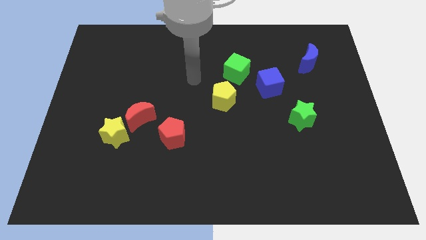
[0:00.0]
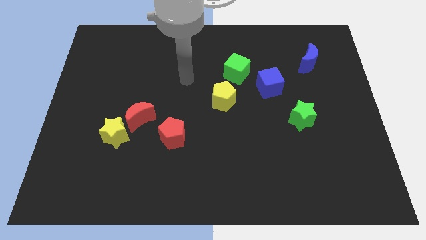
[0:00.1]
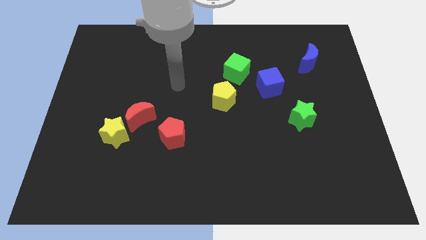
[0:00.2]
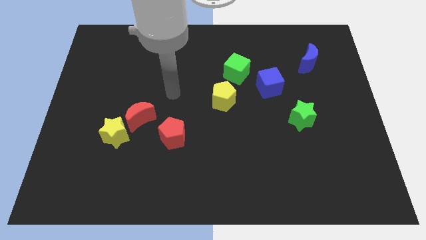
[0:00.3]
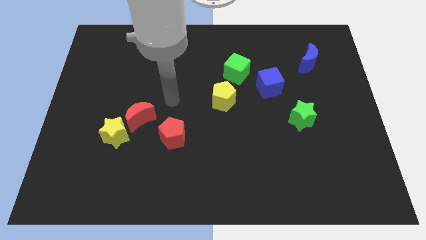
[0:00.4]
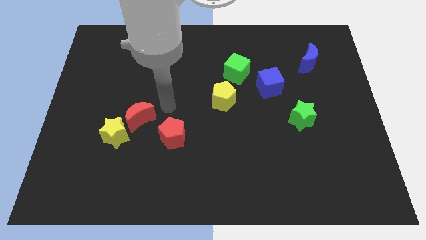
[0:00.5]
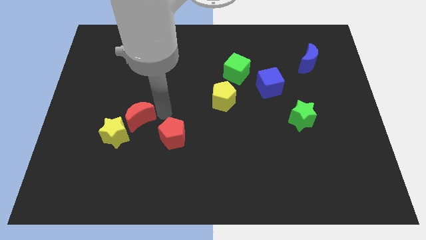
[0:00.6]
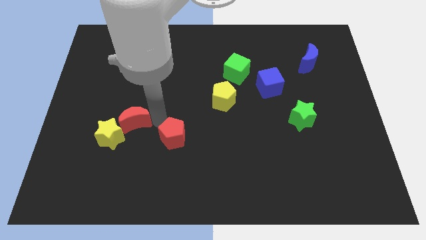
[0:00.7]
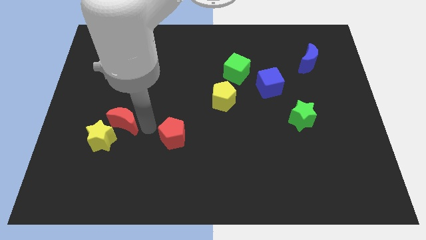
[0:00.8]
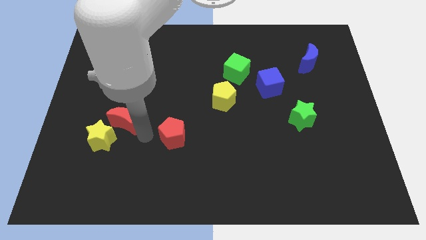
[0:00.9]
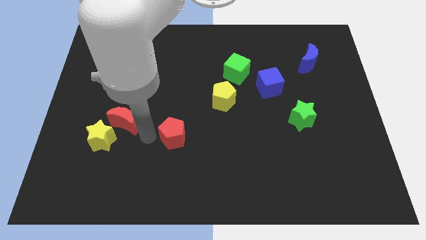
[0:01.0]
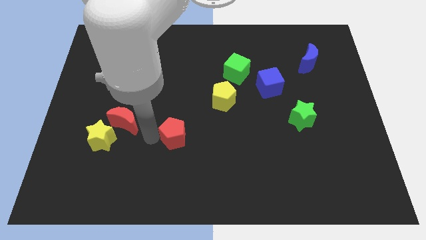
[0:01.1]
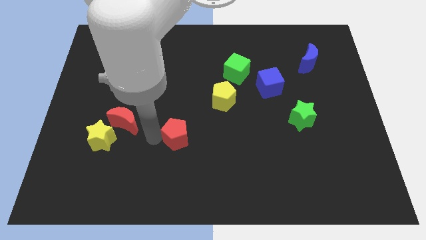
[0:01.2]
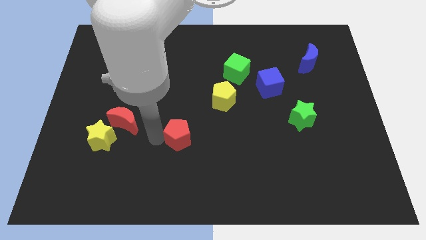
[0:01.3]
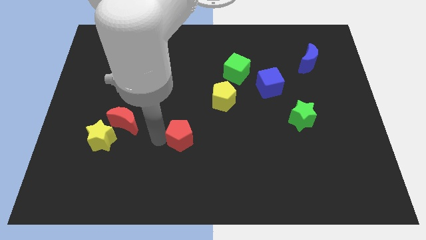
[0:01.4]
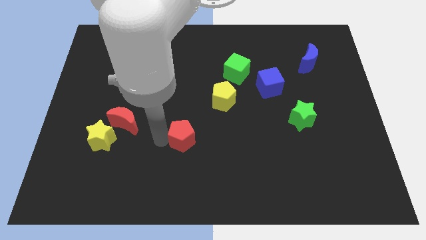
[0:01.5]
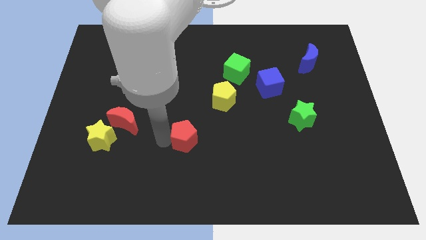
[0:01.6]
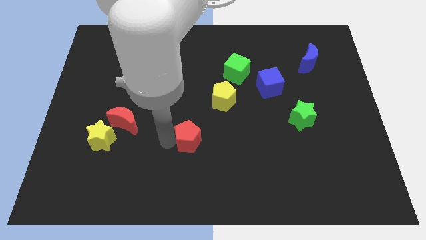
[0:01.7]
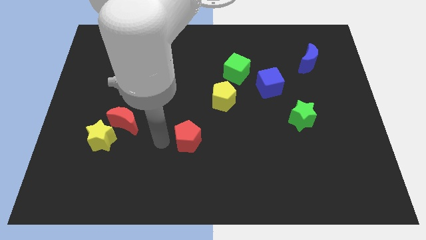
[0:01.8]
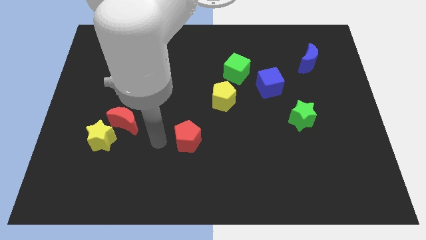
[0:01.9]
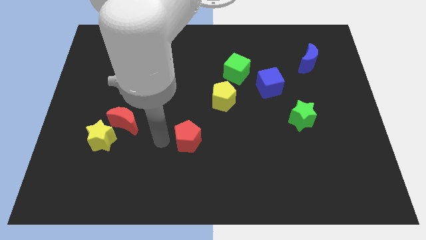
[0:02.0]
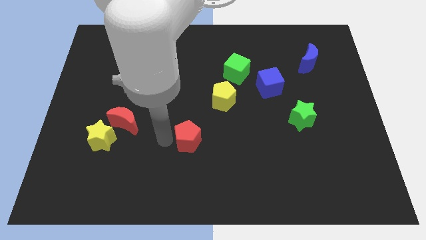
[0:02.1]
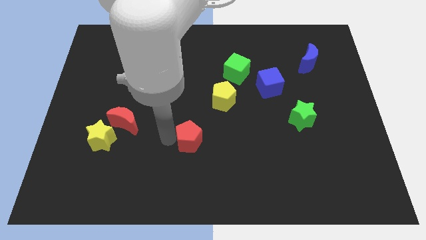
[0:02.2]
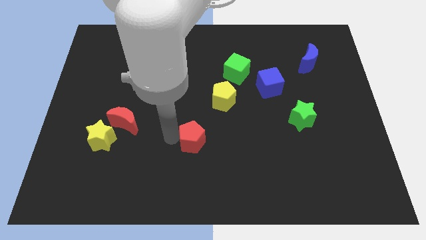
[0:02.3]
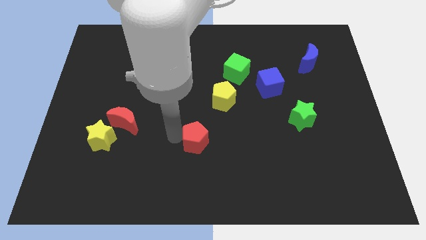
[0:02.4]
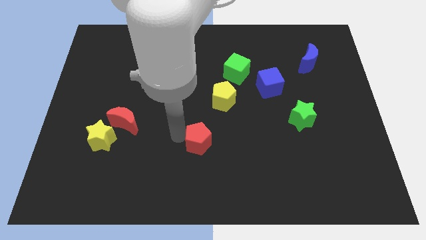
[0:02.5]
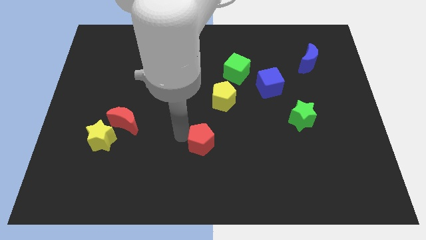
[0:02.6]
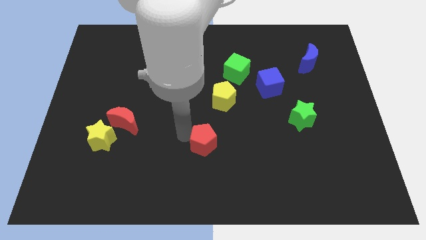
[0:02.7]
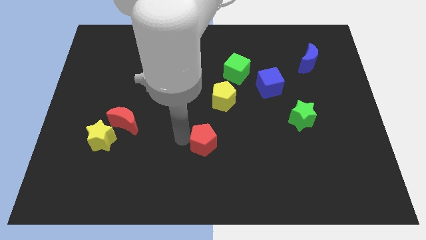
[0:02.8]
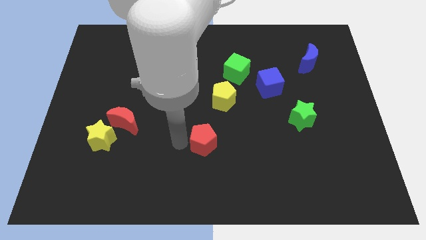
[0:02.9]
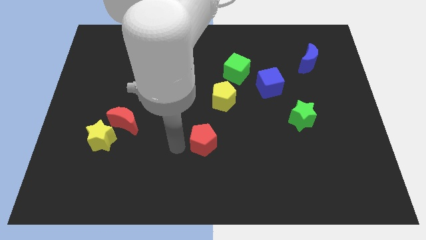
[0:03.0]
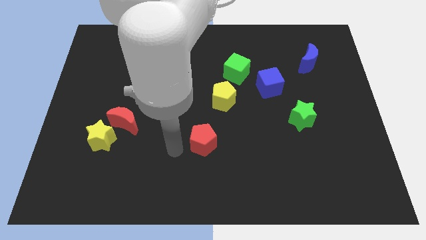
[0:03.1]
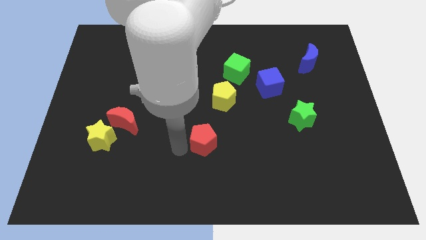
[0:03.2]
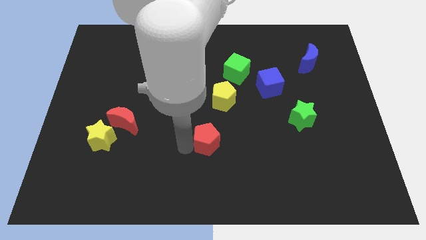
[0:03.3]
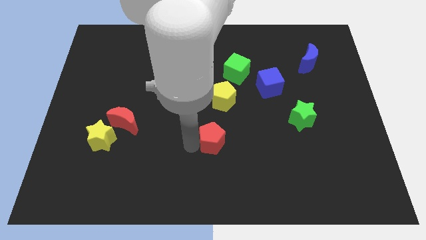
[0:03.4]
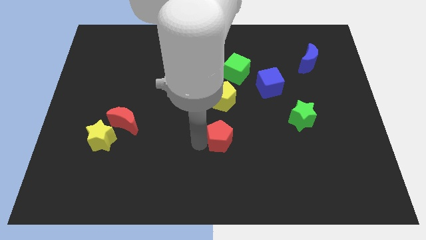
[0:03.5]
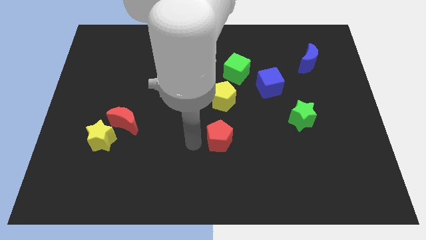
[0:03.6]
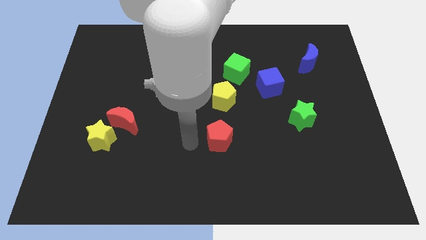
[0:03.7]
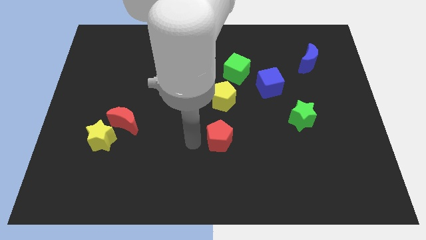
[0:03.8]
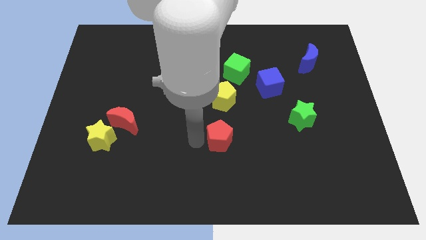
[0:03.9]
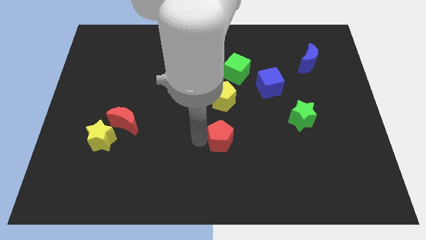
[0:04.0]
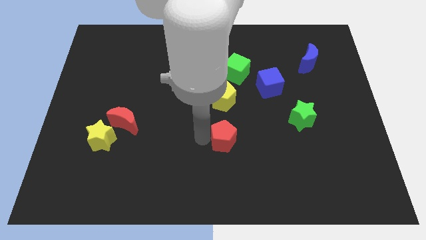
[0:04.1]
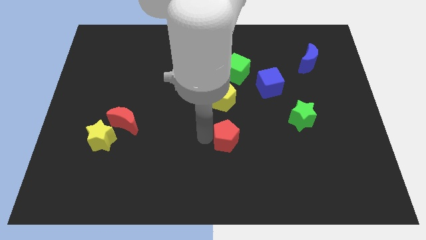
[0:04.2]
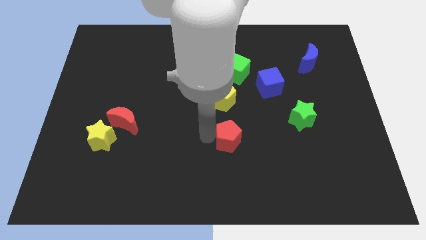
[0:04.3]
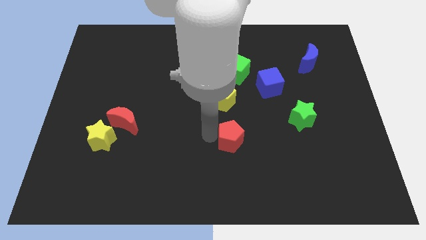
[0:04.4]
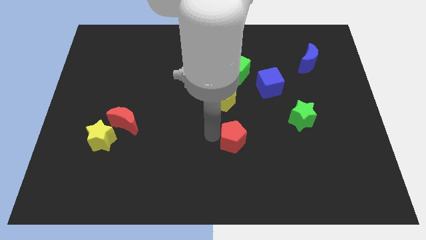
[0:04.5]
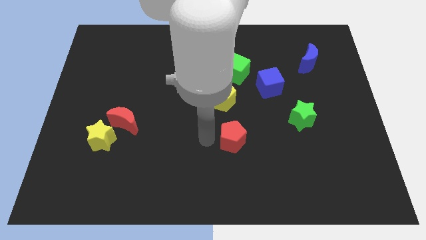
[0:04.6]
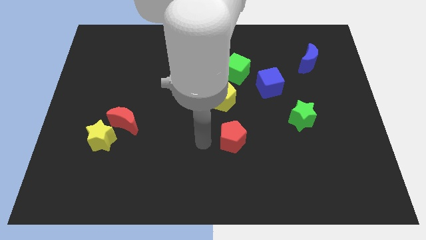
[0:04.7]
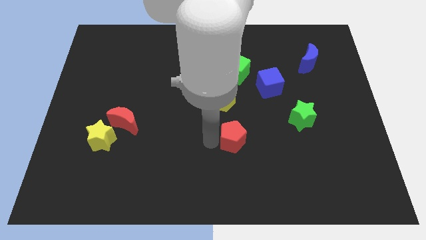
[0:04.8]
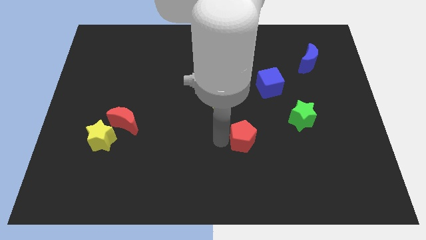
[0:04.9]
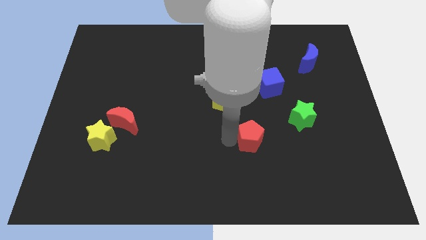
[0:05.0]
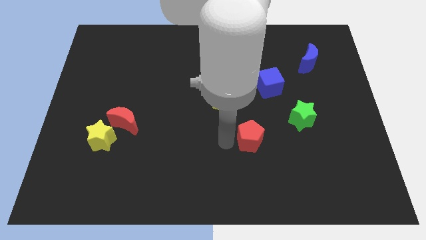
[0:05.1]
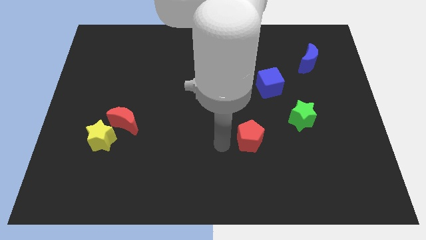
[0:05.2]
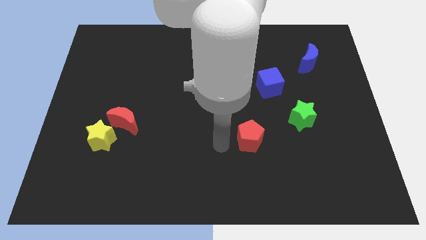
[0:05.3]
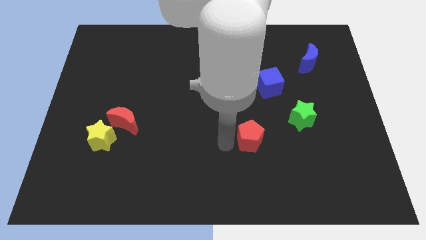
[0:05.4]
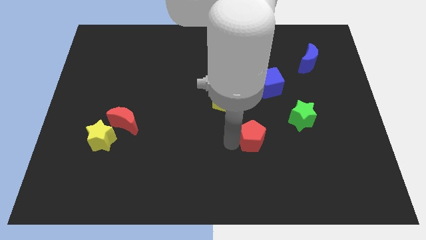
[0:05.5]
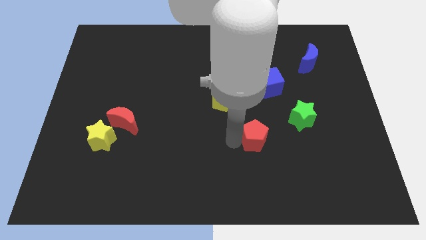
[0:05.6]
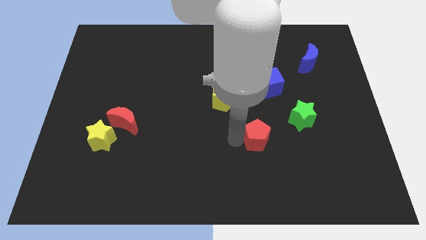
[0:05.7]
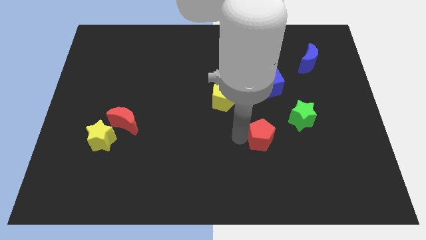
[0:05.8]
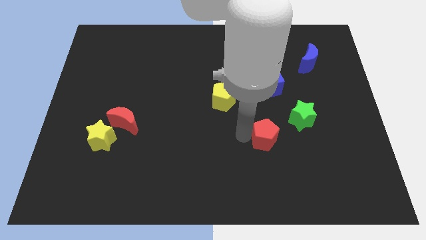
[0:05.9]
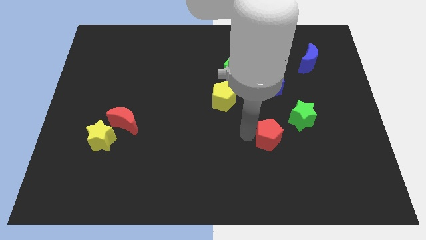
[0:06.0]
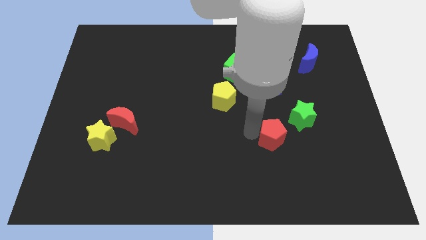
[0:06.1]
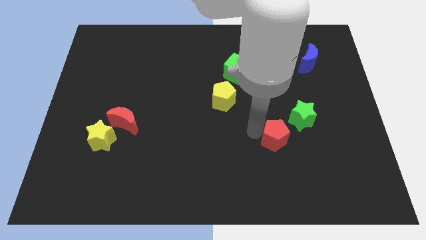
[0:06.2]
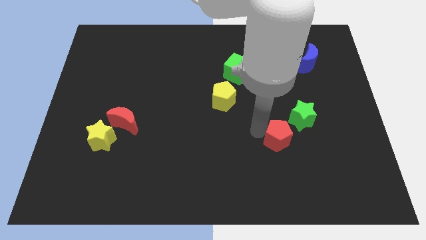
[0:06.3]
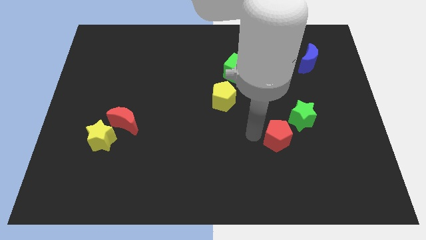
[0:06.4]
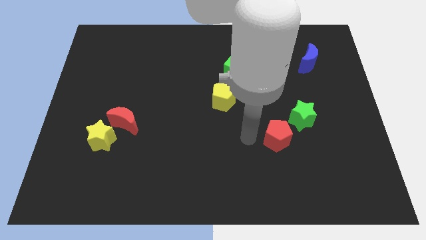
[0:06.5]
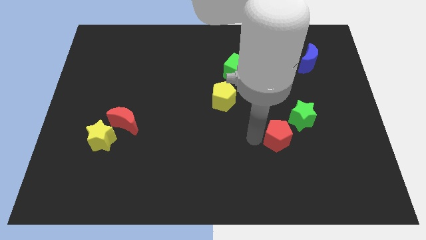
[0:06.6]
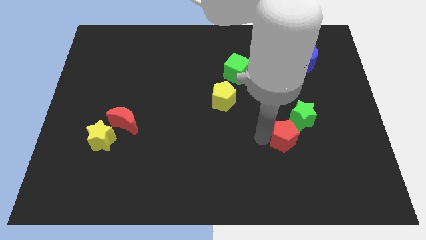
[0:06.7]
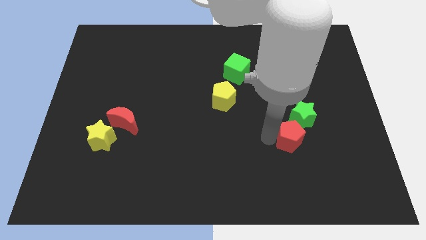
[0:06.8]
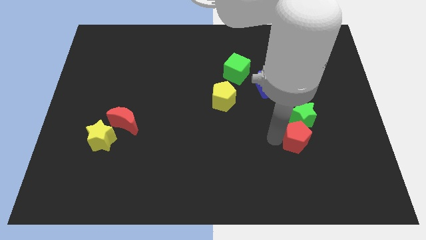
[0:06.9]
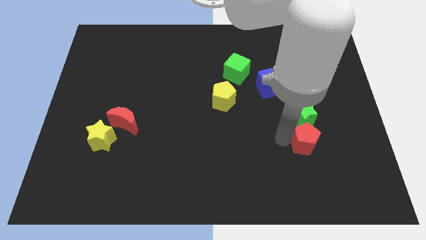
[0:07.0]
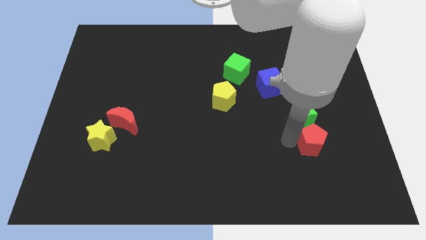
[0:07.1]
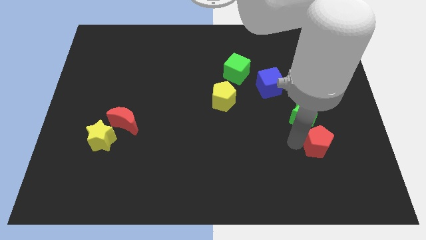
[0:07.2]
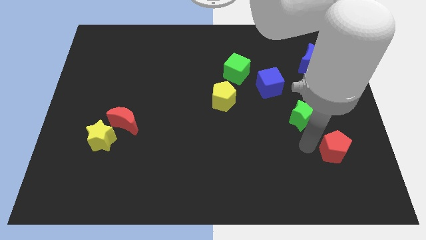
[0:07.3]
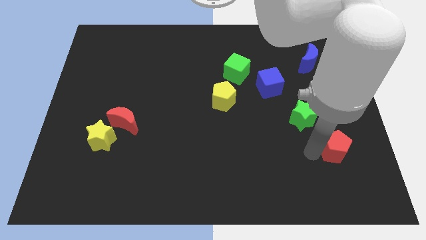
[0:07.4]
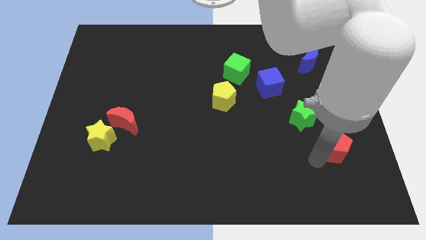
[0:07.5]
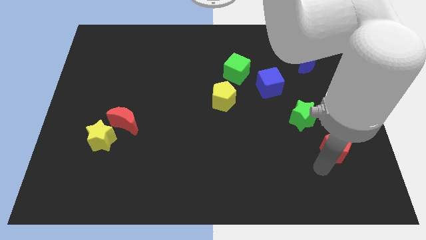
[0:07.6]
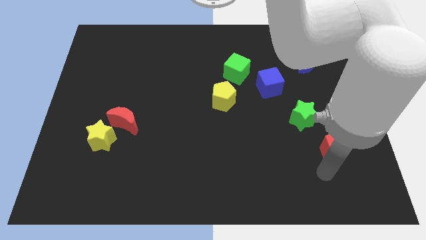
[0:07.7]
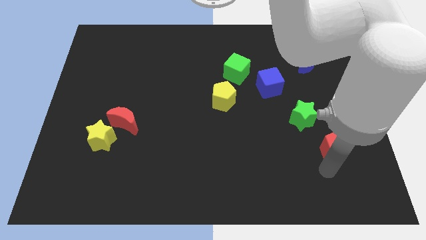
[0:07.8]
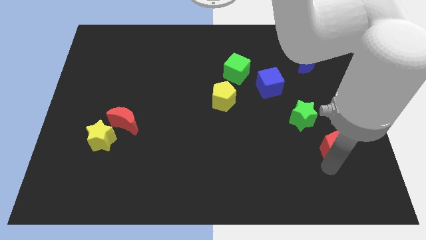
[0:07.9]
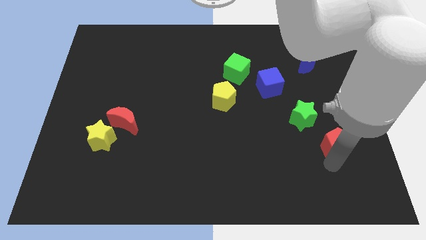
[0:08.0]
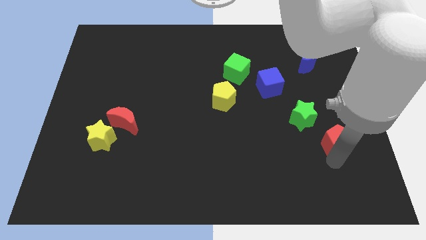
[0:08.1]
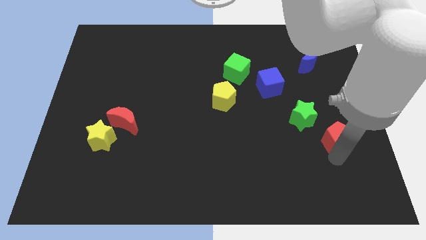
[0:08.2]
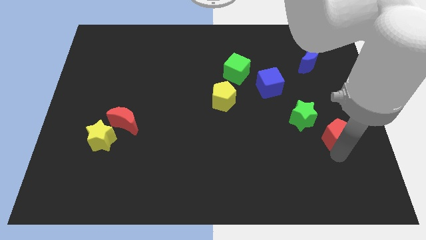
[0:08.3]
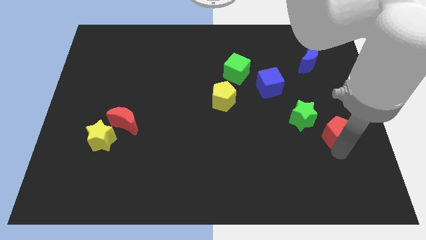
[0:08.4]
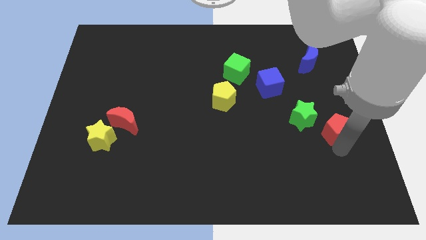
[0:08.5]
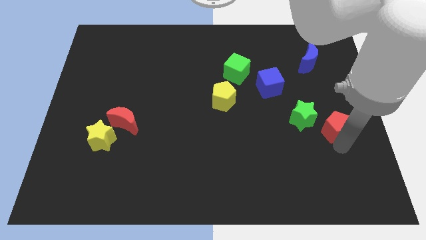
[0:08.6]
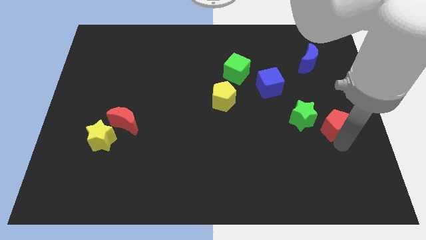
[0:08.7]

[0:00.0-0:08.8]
put the red pentagon to the center right
